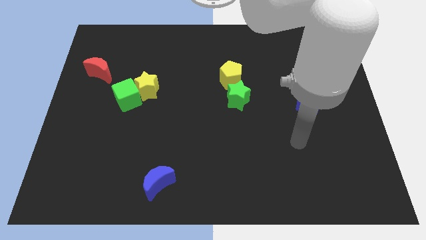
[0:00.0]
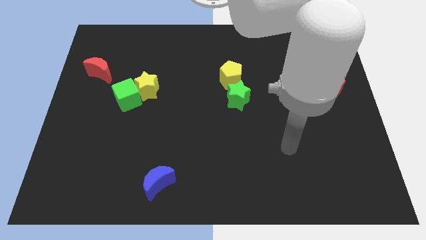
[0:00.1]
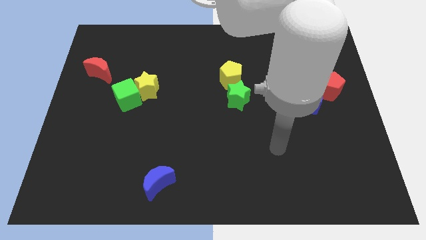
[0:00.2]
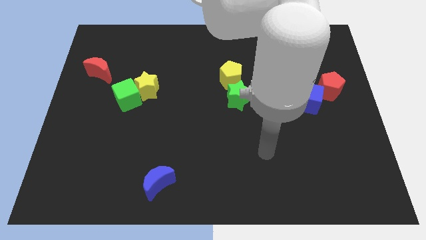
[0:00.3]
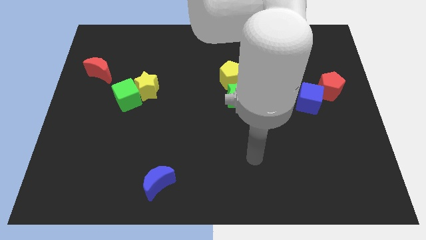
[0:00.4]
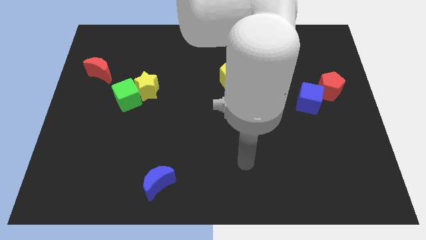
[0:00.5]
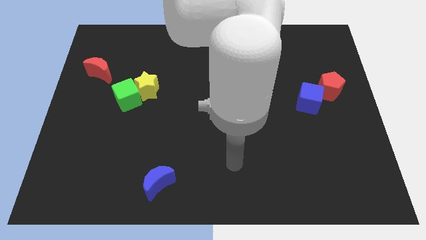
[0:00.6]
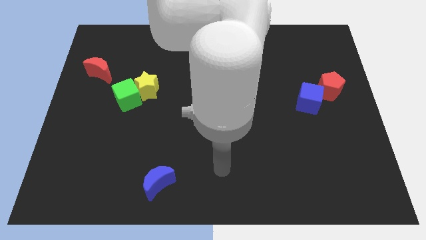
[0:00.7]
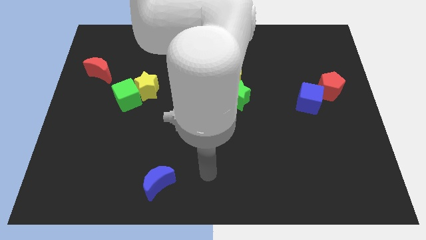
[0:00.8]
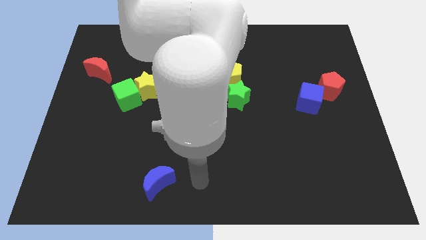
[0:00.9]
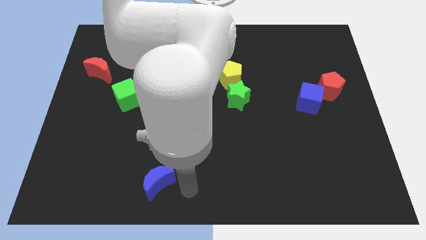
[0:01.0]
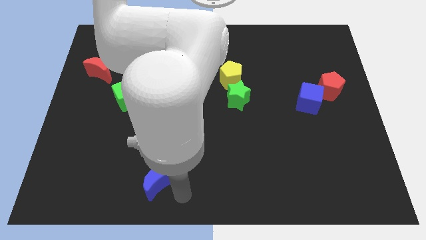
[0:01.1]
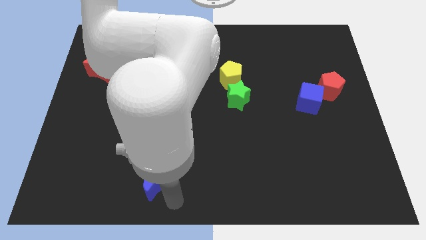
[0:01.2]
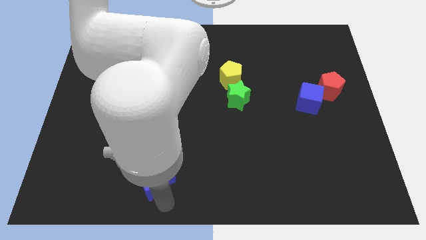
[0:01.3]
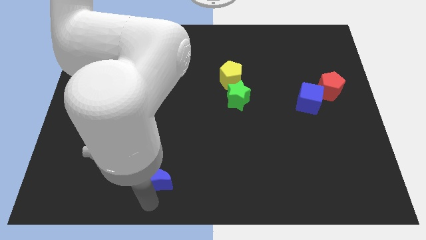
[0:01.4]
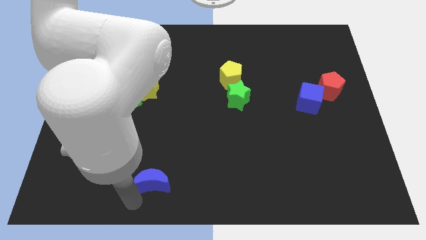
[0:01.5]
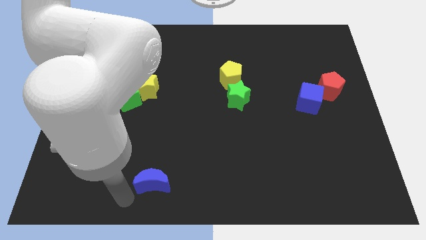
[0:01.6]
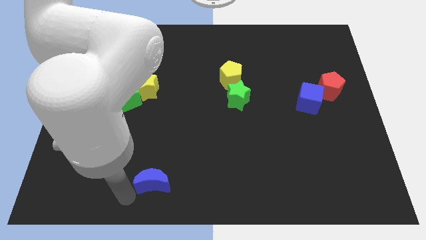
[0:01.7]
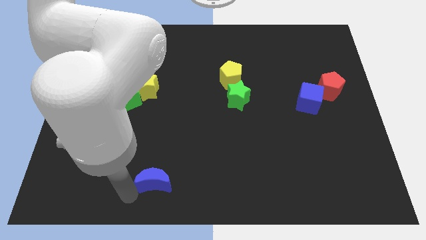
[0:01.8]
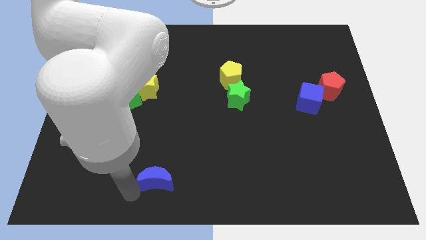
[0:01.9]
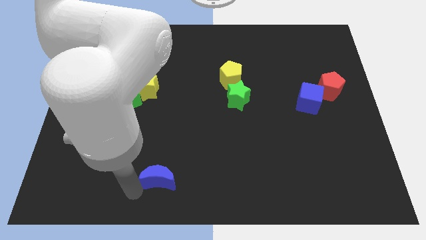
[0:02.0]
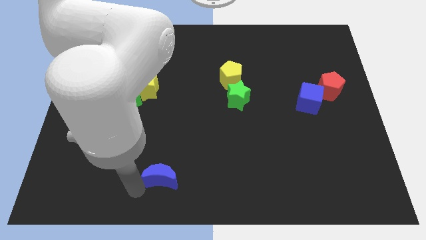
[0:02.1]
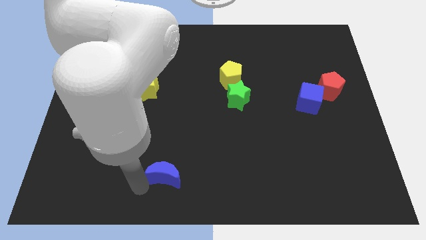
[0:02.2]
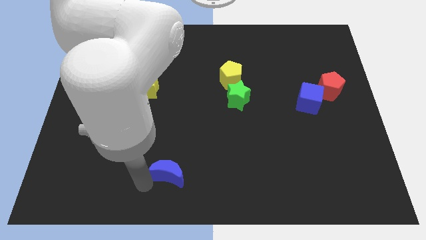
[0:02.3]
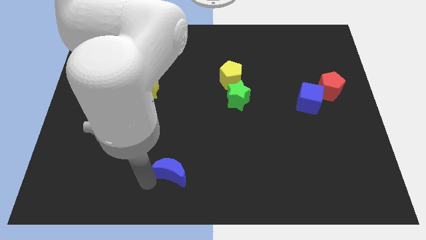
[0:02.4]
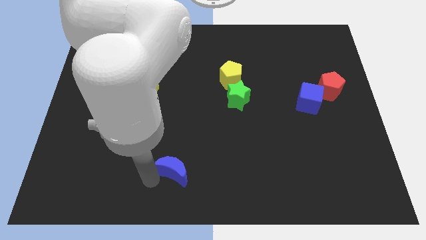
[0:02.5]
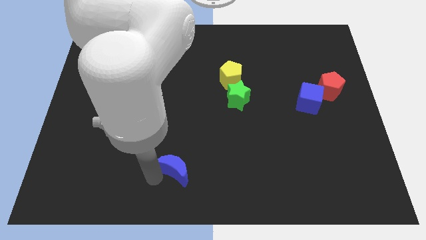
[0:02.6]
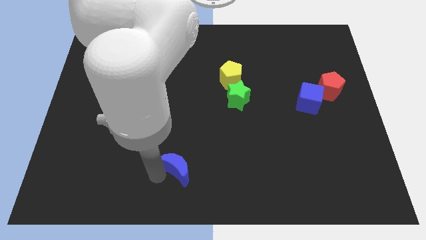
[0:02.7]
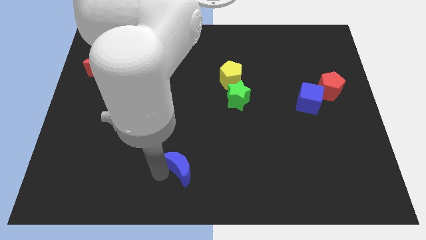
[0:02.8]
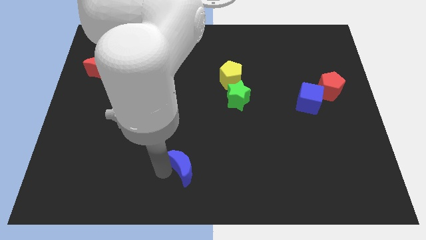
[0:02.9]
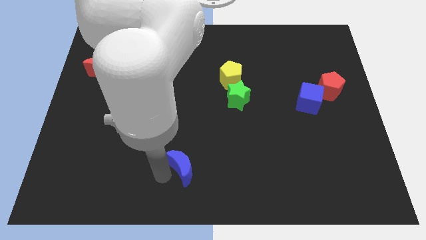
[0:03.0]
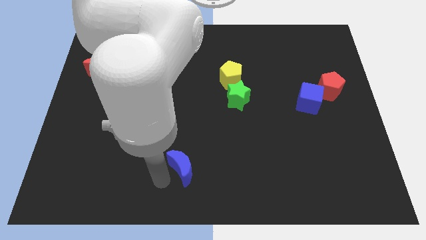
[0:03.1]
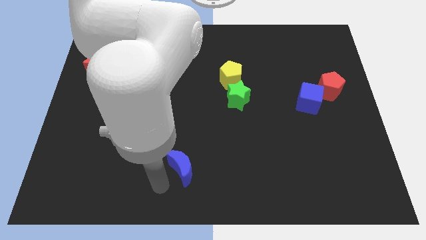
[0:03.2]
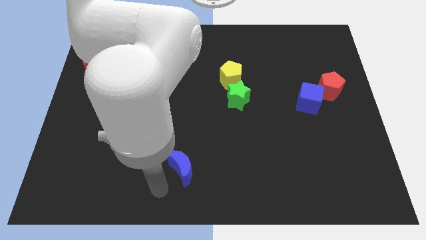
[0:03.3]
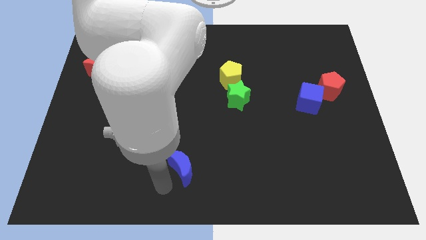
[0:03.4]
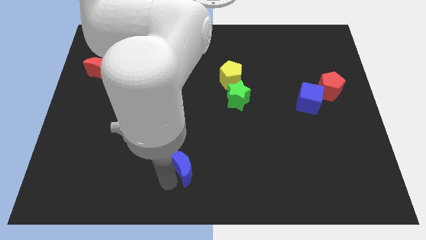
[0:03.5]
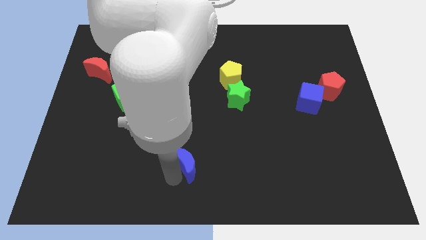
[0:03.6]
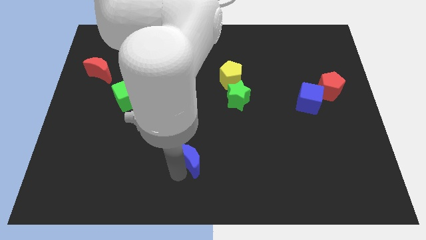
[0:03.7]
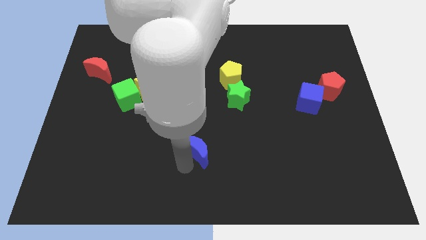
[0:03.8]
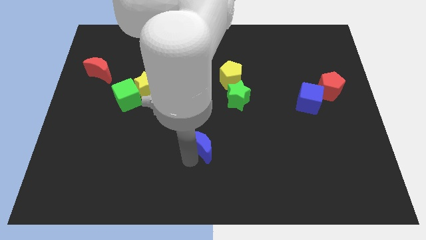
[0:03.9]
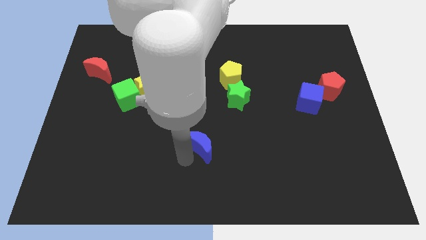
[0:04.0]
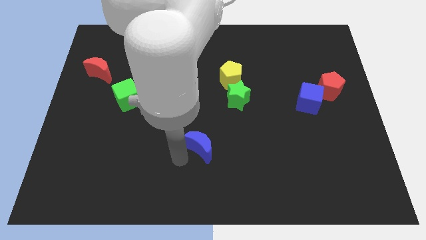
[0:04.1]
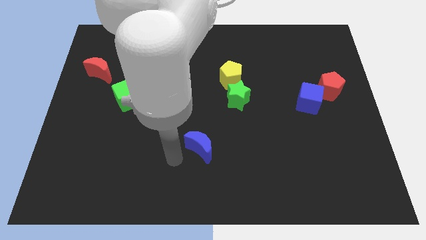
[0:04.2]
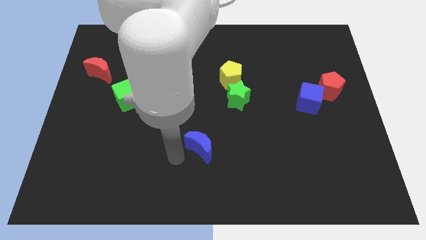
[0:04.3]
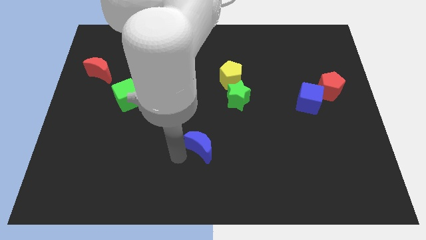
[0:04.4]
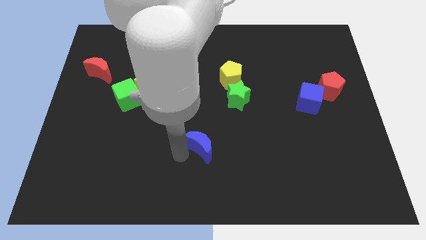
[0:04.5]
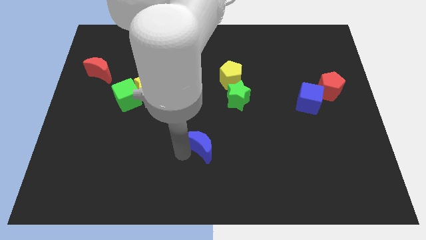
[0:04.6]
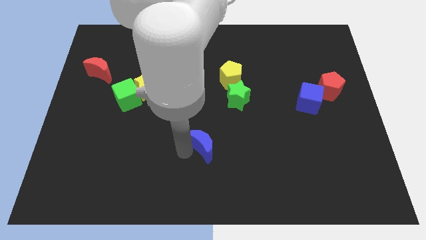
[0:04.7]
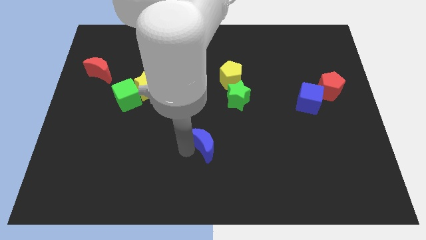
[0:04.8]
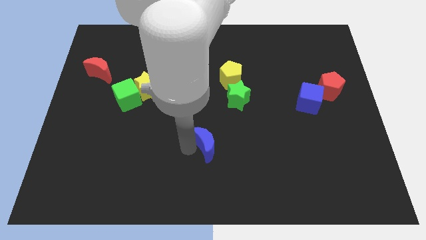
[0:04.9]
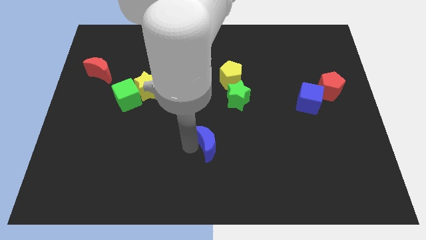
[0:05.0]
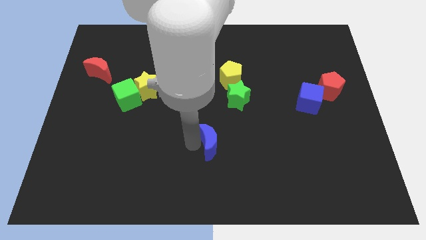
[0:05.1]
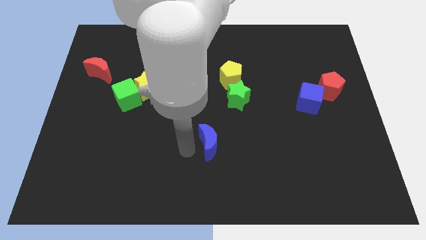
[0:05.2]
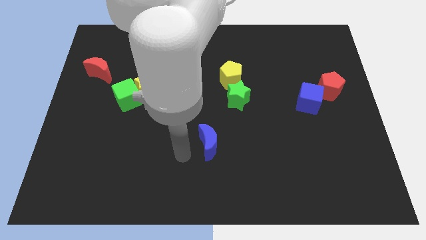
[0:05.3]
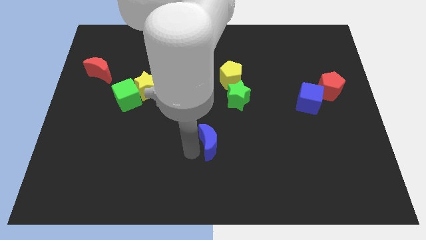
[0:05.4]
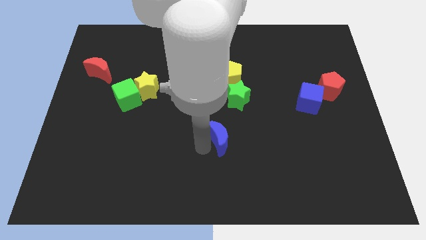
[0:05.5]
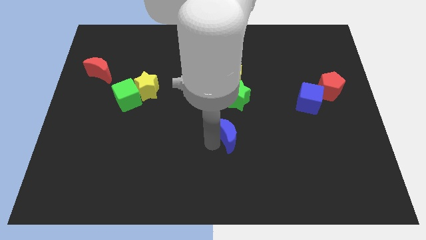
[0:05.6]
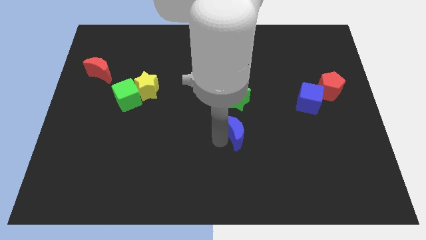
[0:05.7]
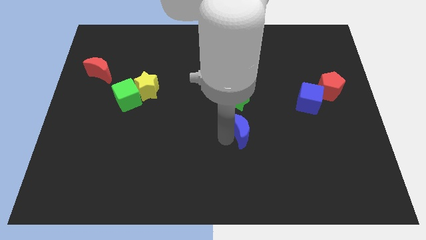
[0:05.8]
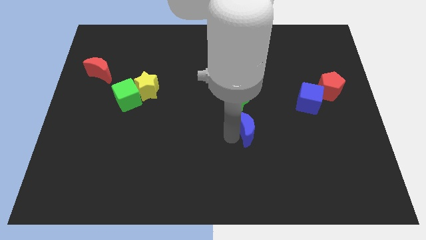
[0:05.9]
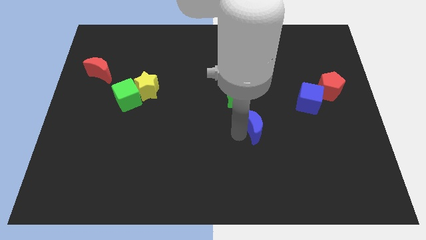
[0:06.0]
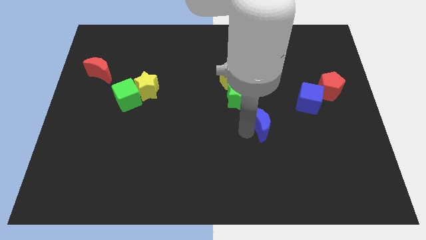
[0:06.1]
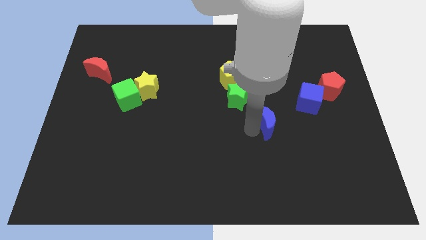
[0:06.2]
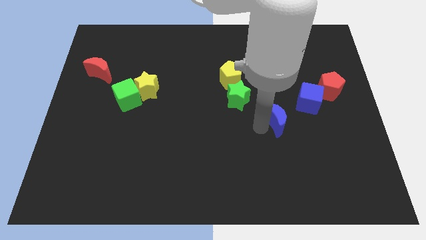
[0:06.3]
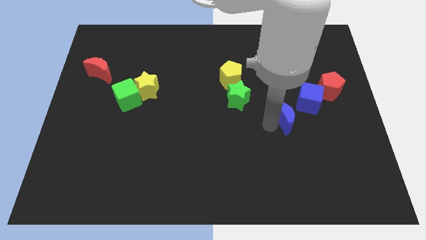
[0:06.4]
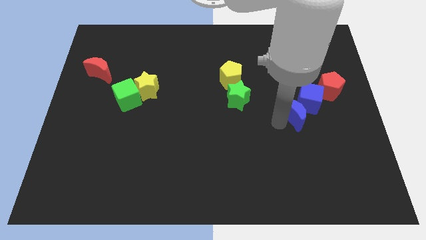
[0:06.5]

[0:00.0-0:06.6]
push the blue moon to the blue cube

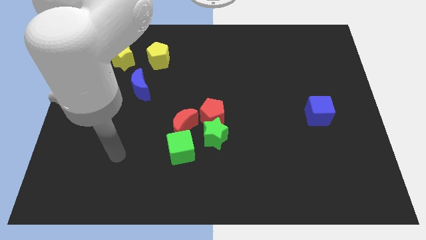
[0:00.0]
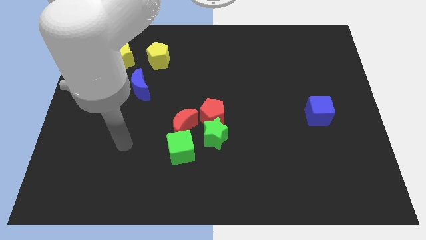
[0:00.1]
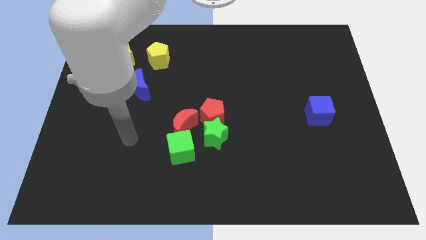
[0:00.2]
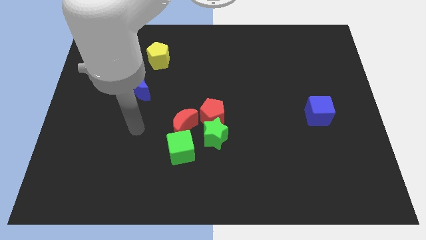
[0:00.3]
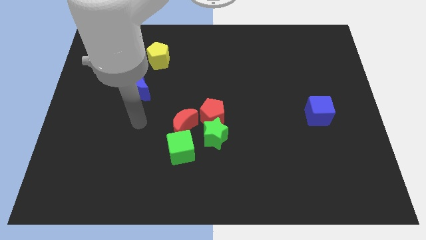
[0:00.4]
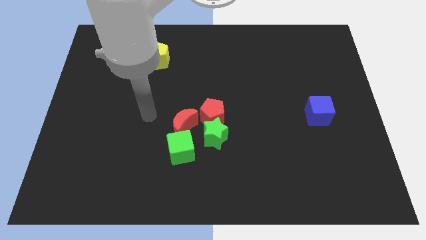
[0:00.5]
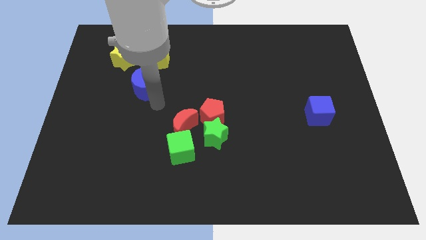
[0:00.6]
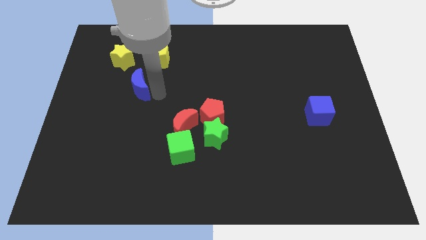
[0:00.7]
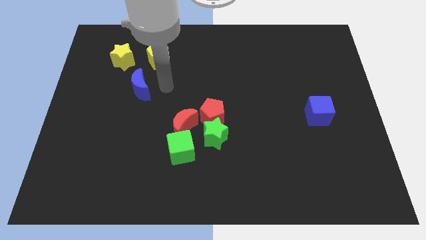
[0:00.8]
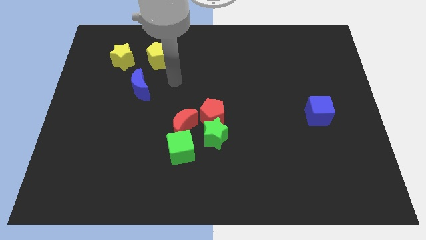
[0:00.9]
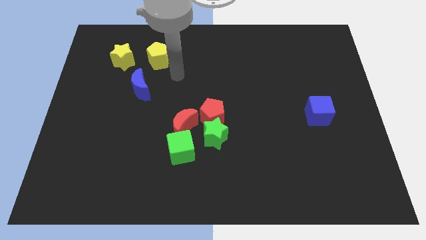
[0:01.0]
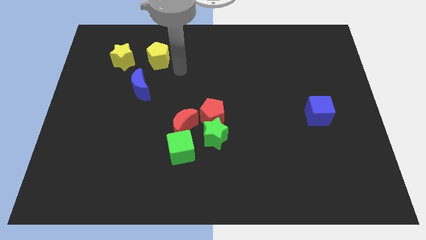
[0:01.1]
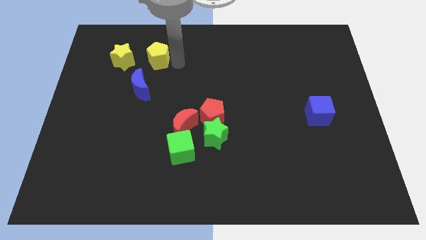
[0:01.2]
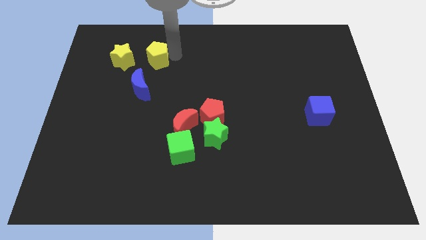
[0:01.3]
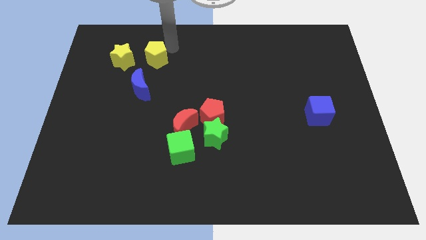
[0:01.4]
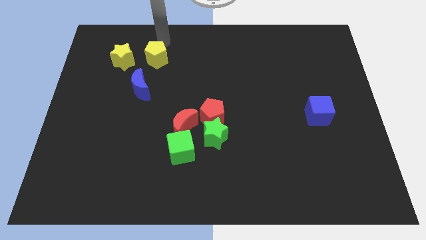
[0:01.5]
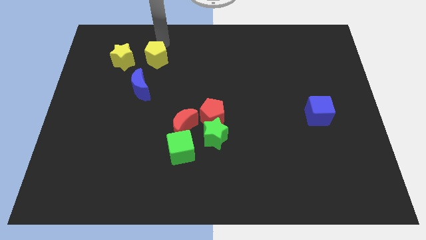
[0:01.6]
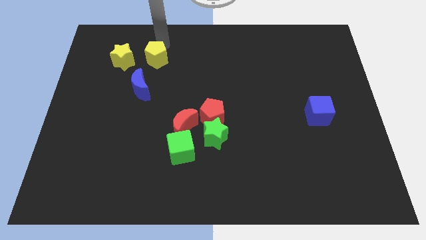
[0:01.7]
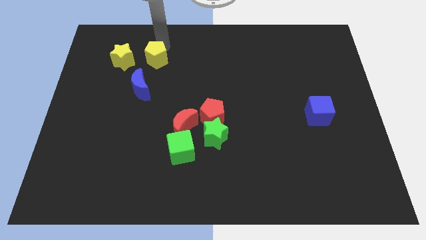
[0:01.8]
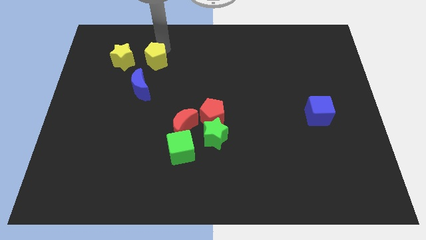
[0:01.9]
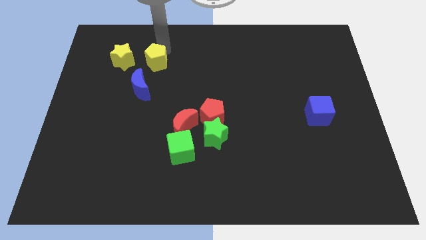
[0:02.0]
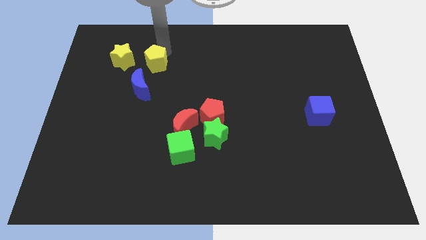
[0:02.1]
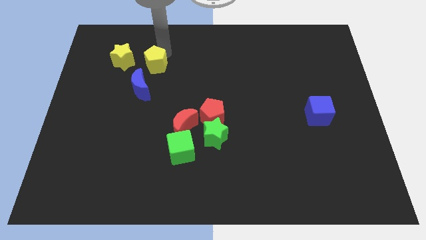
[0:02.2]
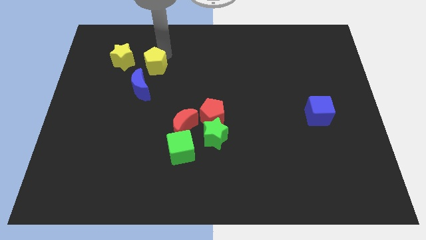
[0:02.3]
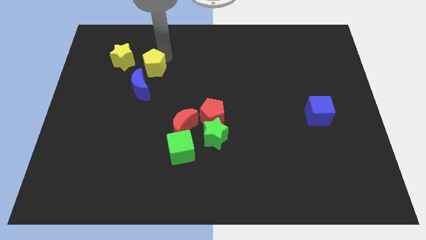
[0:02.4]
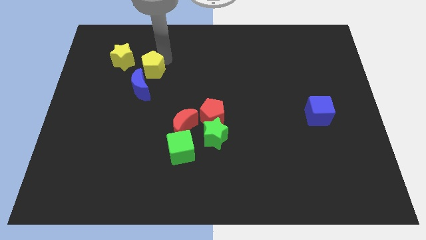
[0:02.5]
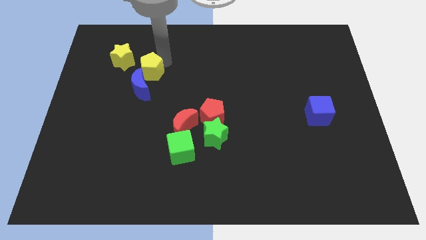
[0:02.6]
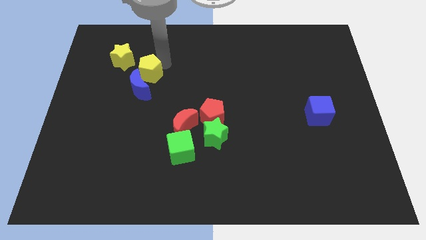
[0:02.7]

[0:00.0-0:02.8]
put the yellow pentagon close to the blue moon
